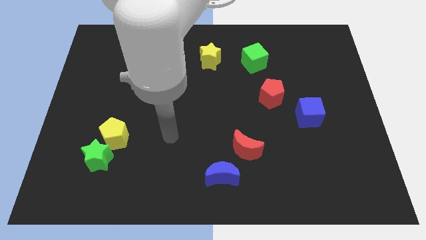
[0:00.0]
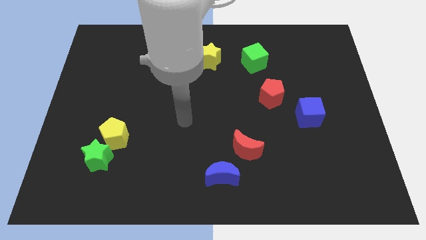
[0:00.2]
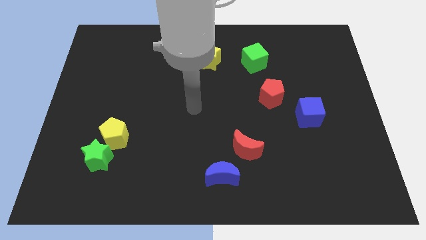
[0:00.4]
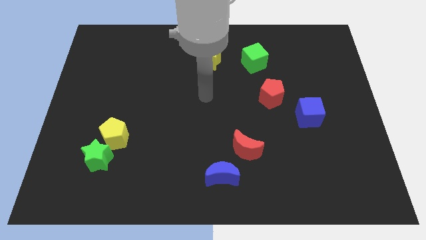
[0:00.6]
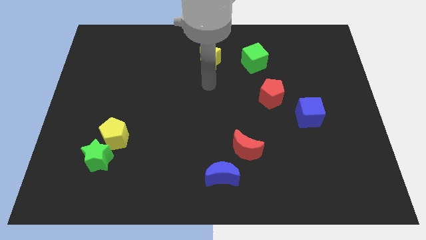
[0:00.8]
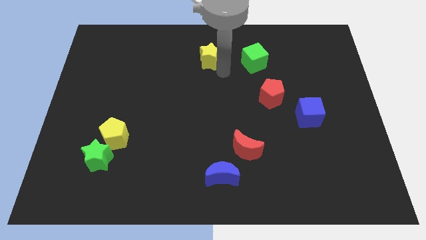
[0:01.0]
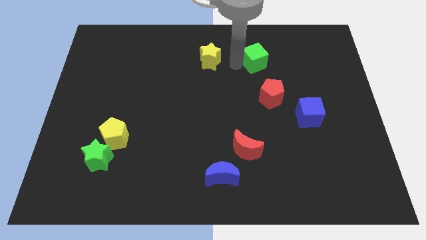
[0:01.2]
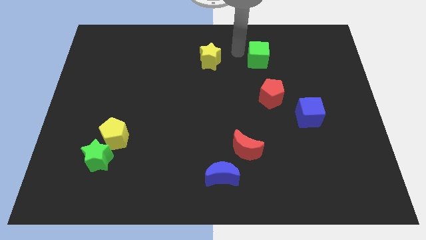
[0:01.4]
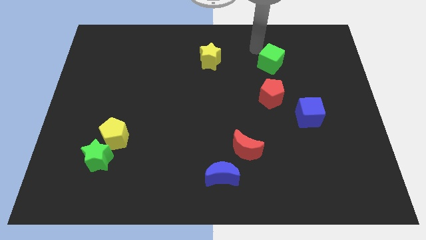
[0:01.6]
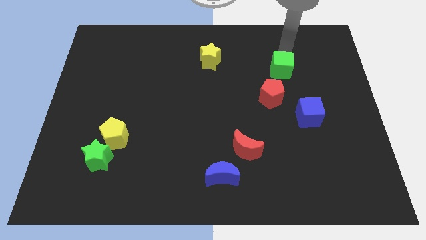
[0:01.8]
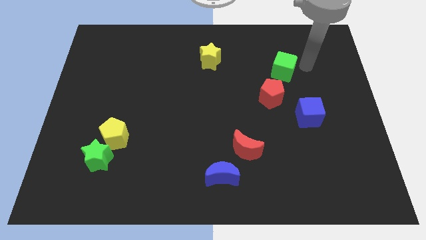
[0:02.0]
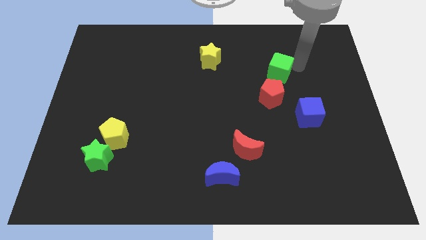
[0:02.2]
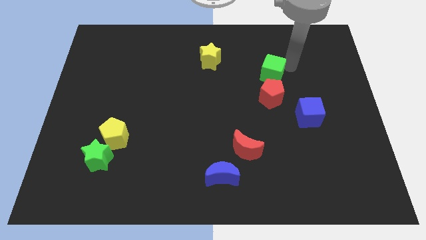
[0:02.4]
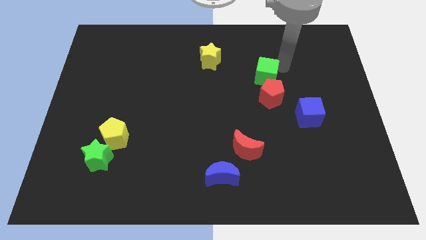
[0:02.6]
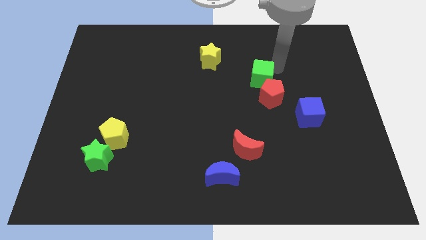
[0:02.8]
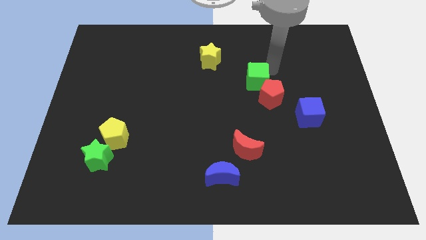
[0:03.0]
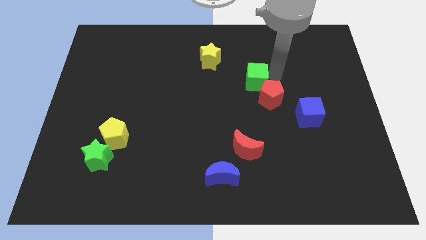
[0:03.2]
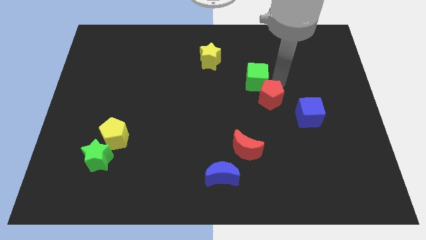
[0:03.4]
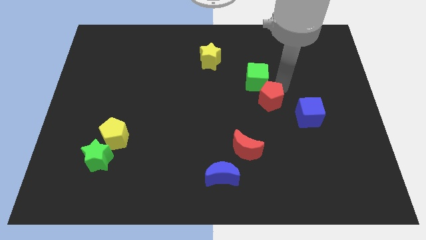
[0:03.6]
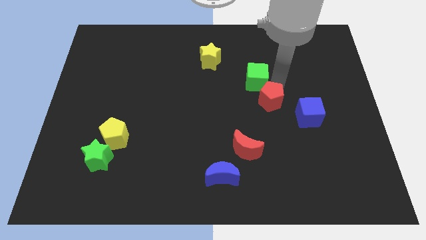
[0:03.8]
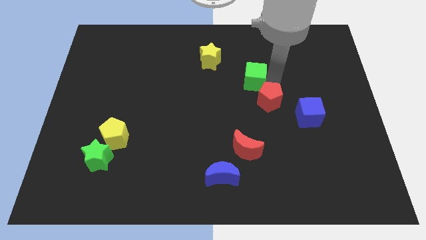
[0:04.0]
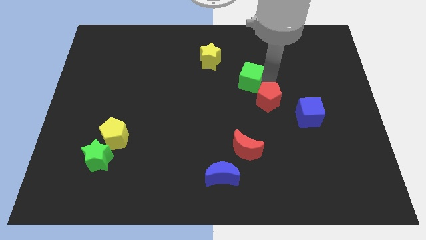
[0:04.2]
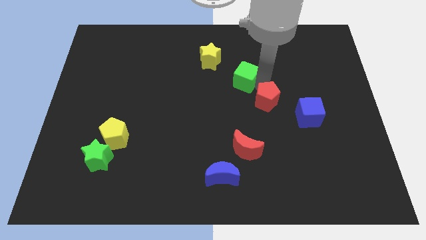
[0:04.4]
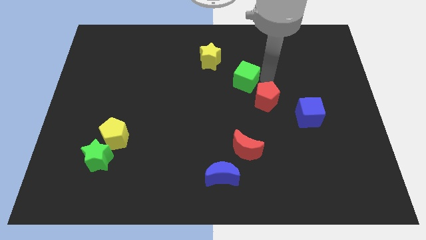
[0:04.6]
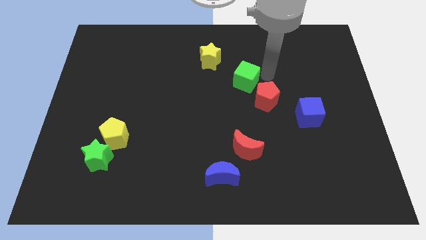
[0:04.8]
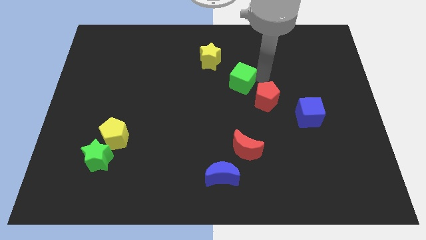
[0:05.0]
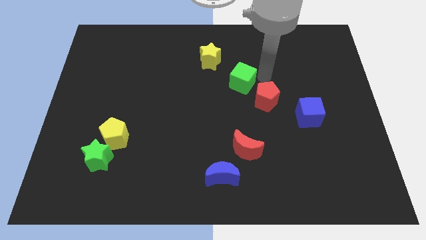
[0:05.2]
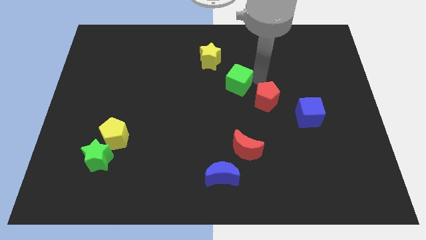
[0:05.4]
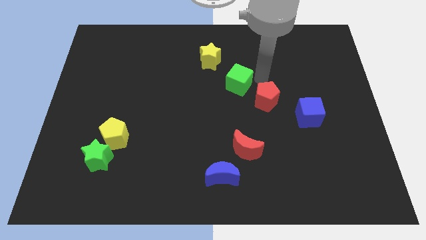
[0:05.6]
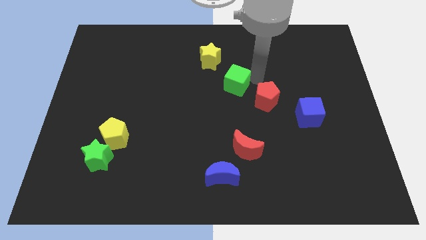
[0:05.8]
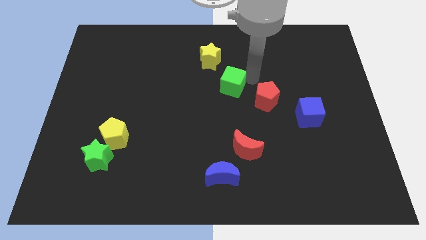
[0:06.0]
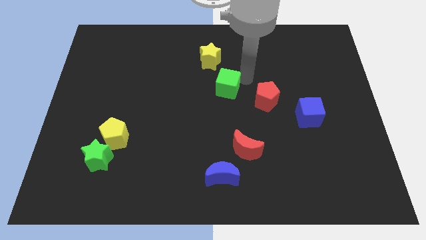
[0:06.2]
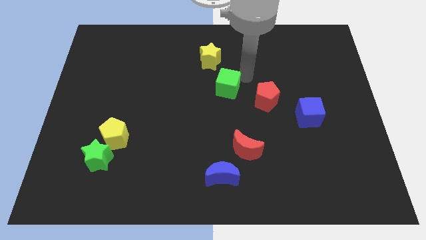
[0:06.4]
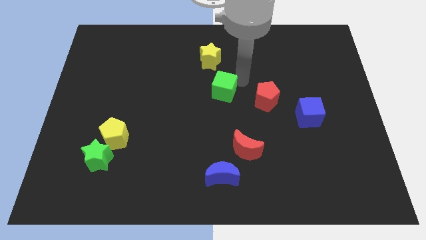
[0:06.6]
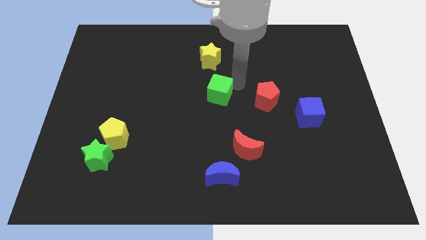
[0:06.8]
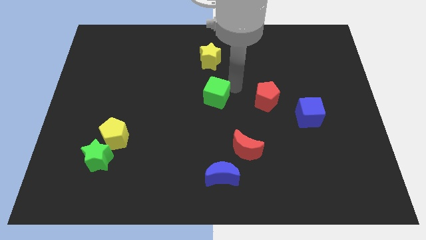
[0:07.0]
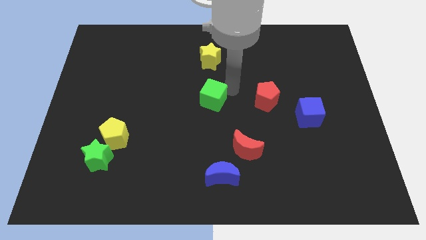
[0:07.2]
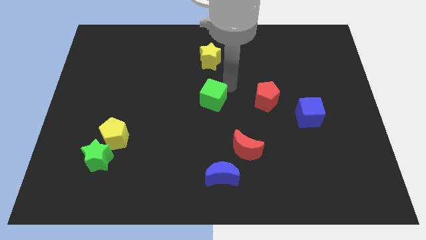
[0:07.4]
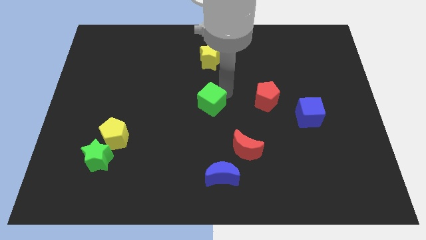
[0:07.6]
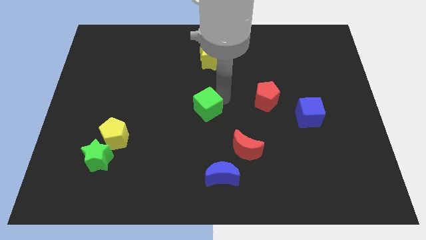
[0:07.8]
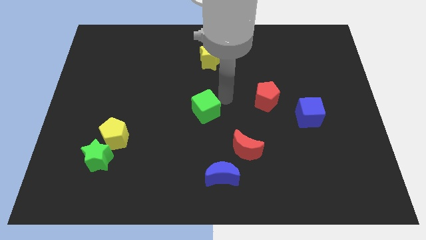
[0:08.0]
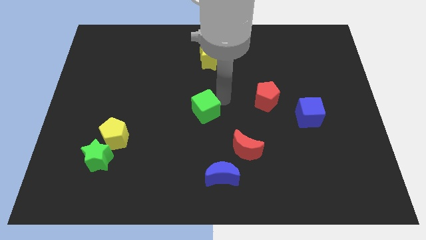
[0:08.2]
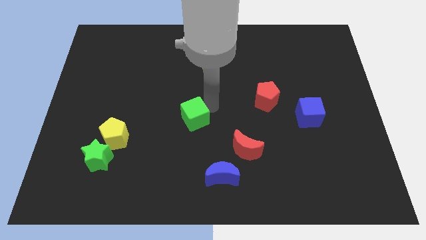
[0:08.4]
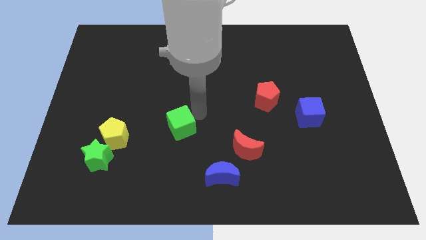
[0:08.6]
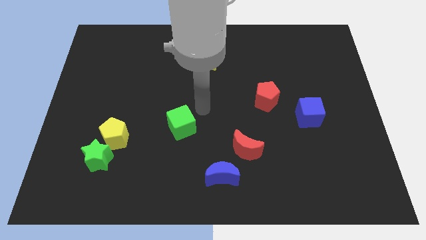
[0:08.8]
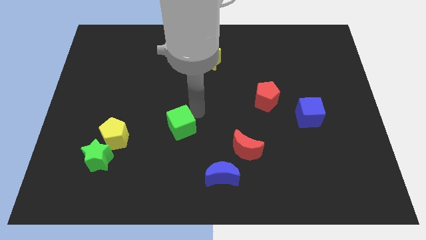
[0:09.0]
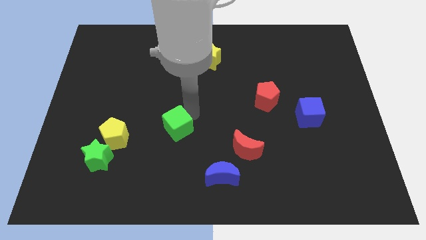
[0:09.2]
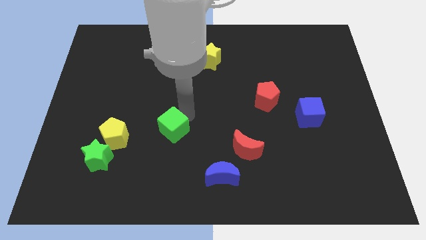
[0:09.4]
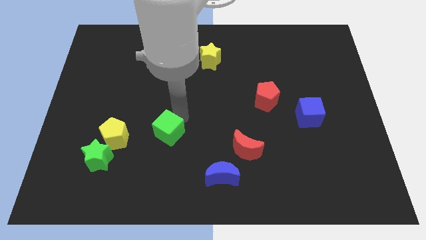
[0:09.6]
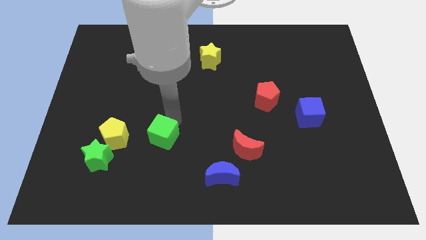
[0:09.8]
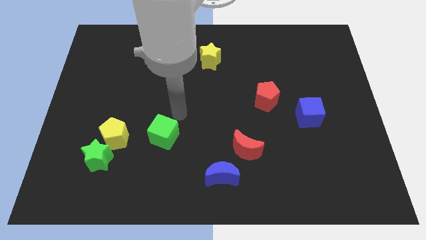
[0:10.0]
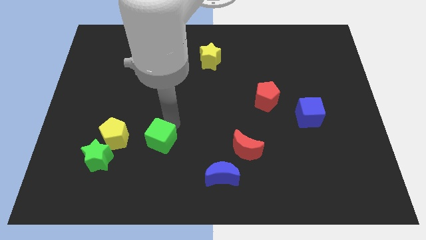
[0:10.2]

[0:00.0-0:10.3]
put the green cube to the right side of the green star

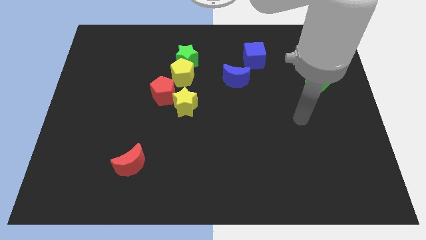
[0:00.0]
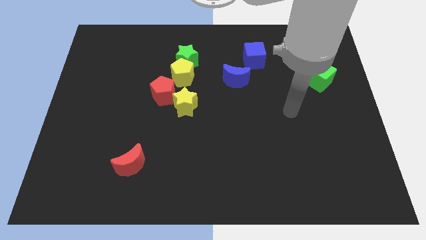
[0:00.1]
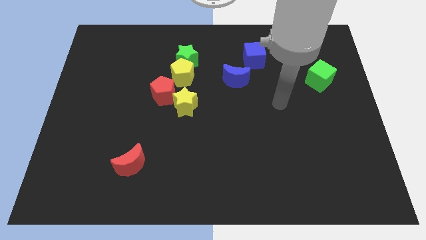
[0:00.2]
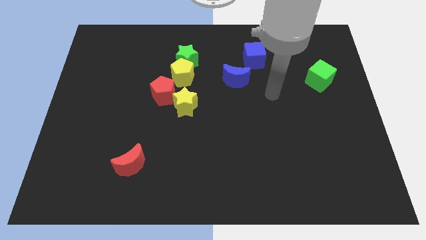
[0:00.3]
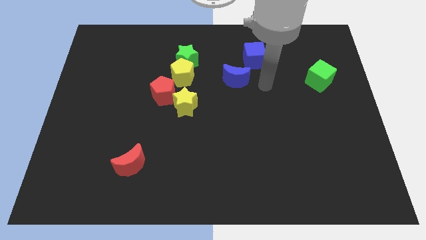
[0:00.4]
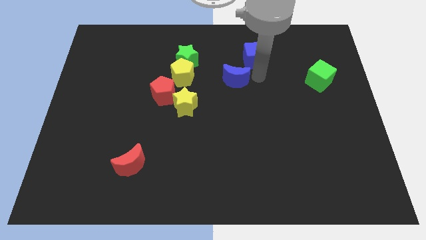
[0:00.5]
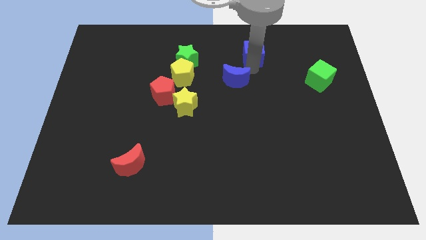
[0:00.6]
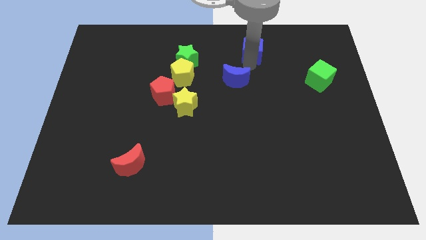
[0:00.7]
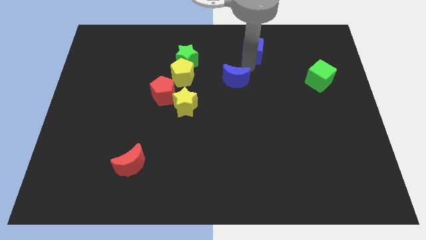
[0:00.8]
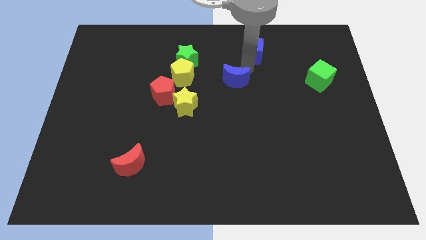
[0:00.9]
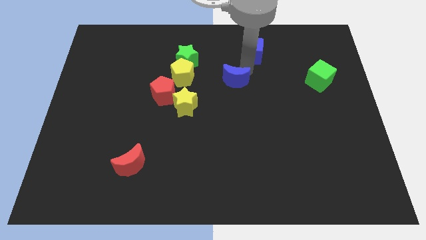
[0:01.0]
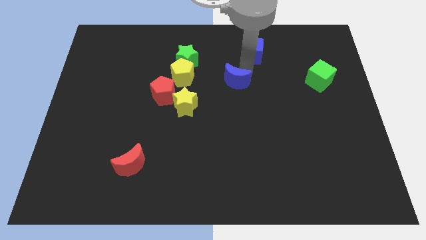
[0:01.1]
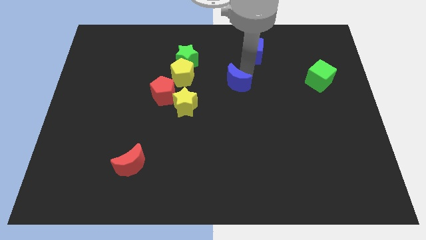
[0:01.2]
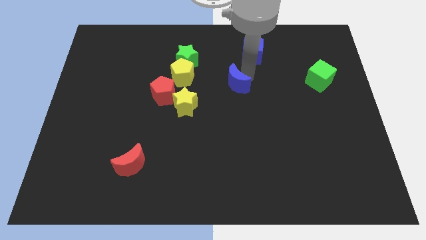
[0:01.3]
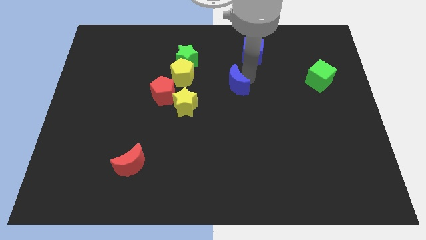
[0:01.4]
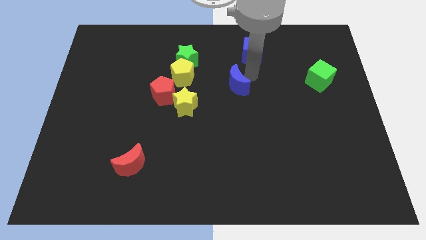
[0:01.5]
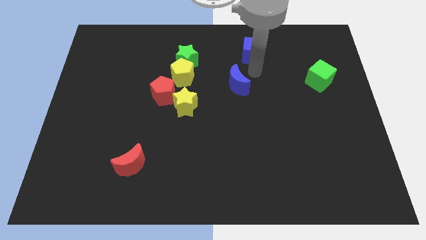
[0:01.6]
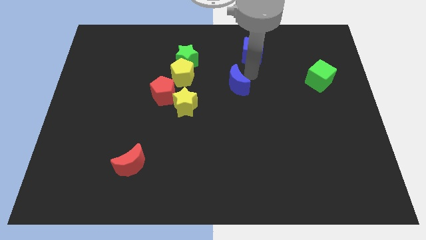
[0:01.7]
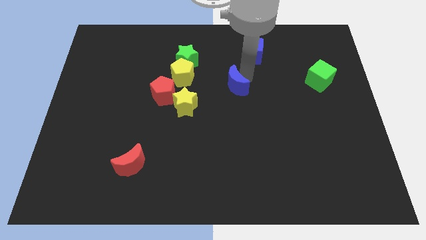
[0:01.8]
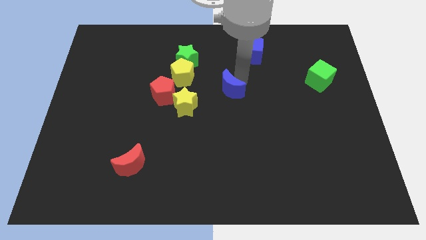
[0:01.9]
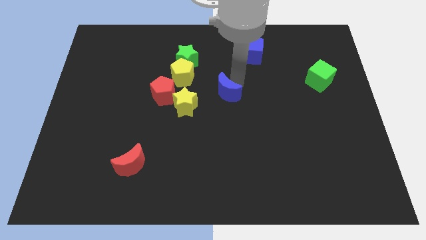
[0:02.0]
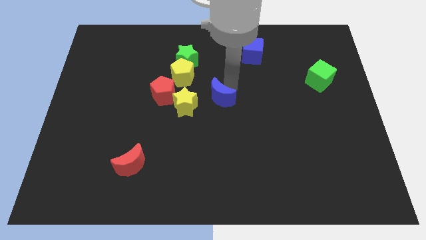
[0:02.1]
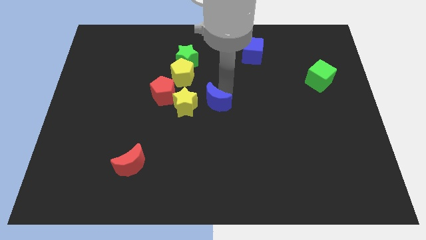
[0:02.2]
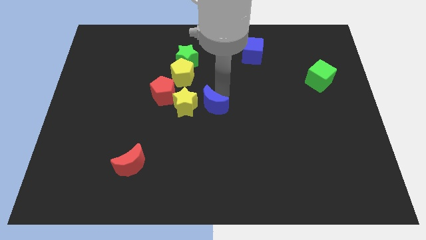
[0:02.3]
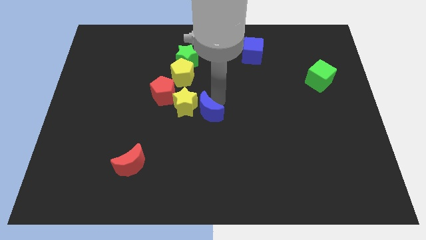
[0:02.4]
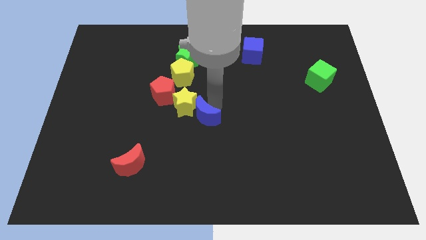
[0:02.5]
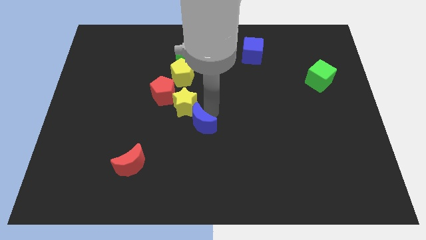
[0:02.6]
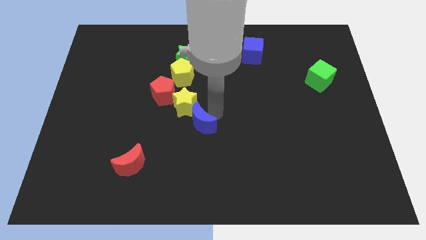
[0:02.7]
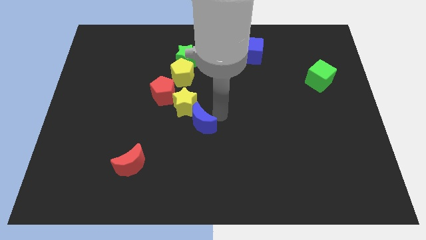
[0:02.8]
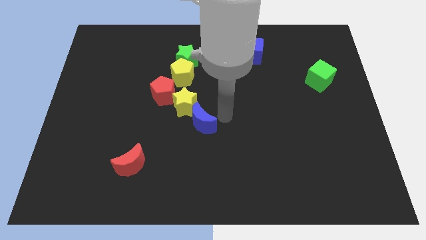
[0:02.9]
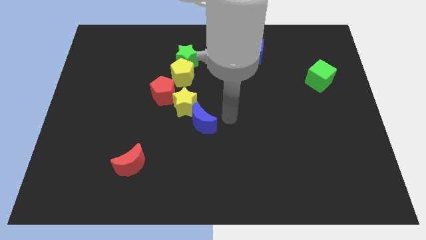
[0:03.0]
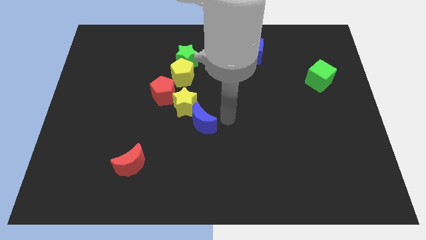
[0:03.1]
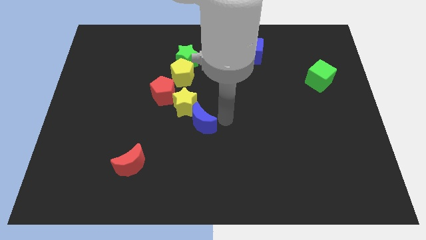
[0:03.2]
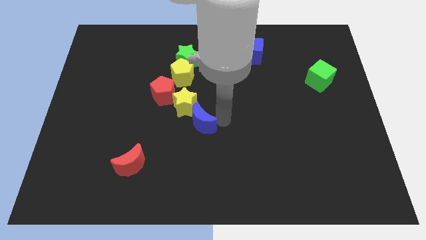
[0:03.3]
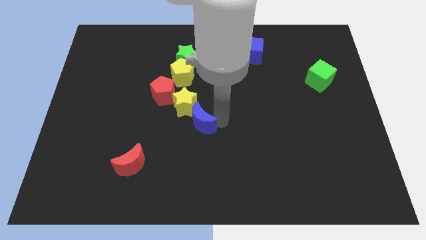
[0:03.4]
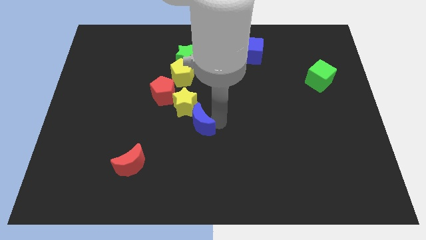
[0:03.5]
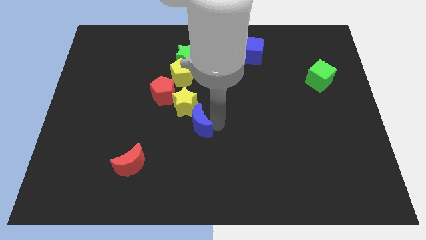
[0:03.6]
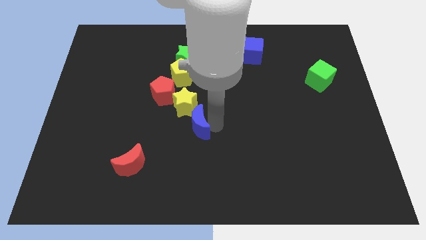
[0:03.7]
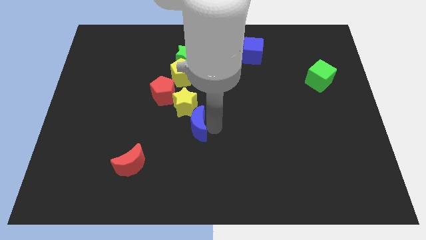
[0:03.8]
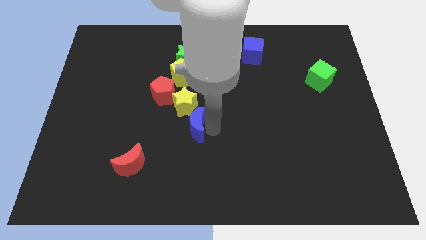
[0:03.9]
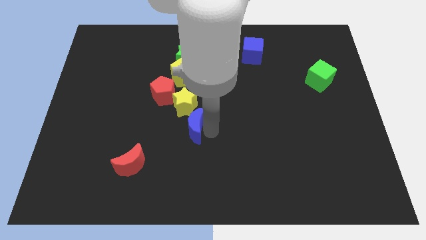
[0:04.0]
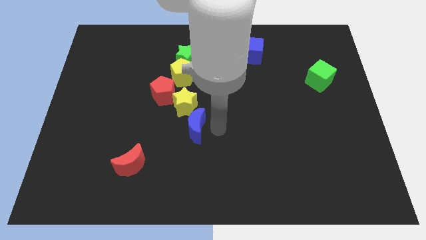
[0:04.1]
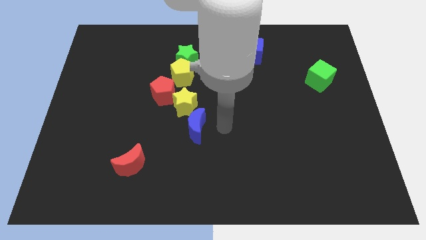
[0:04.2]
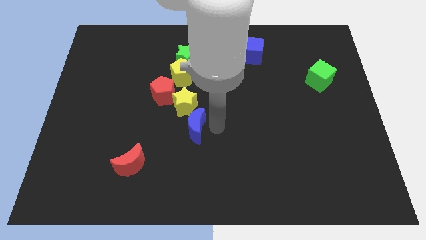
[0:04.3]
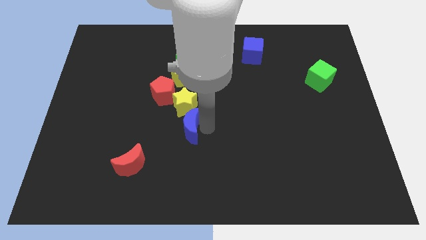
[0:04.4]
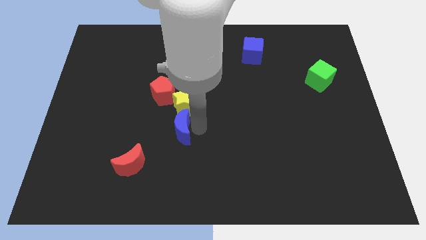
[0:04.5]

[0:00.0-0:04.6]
push the blue moon to the bottom side of the red pentagon
